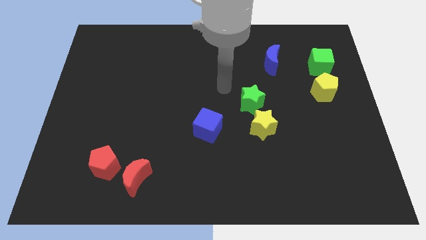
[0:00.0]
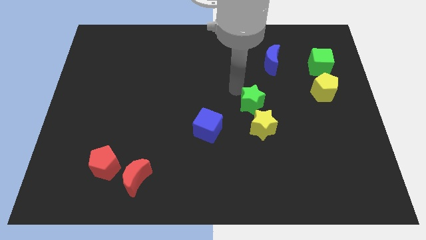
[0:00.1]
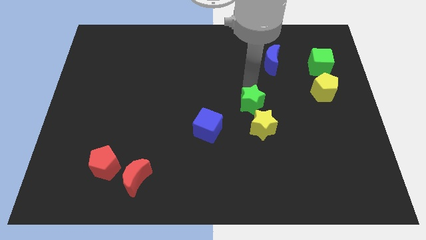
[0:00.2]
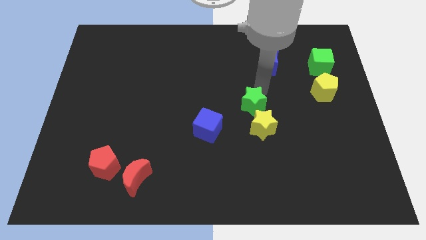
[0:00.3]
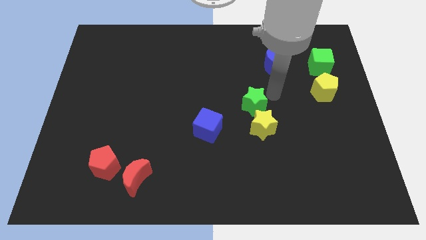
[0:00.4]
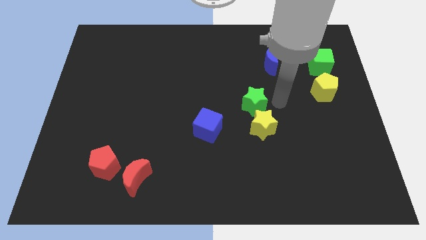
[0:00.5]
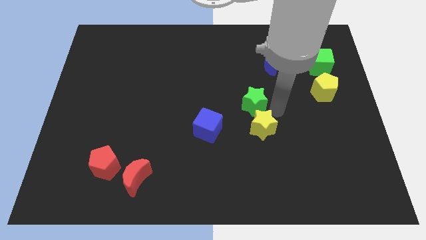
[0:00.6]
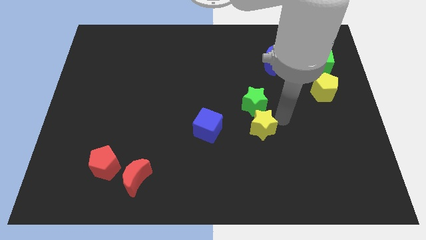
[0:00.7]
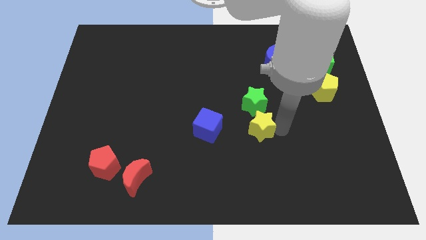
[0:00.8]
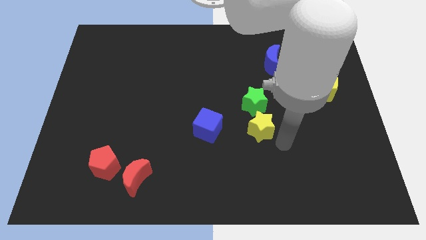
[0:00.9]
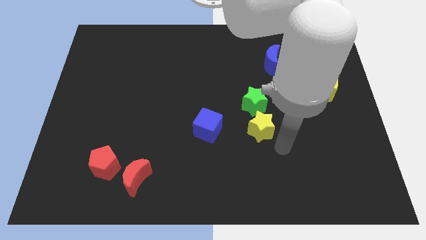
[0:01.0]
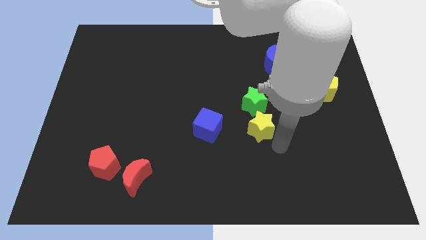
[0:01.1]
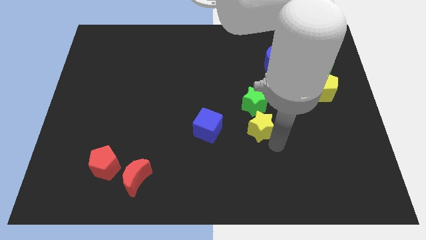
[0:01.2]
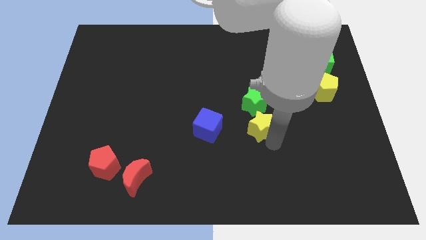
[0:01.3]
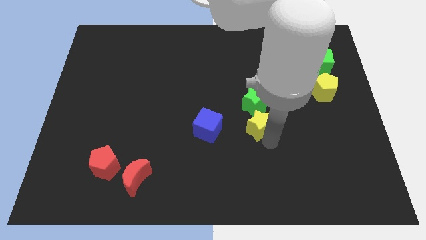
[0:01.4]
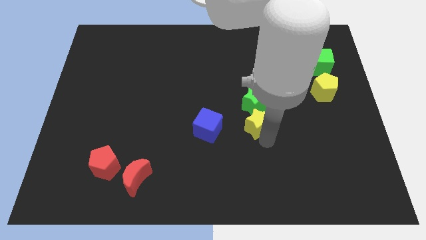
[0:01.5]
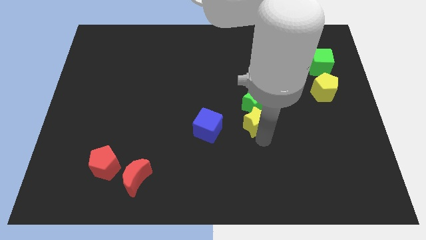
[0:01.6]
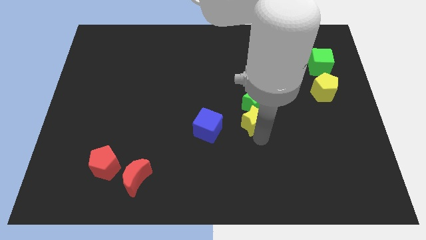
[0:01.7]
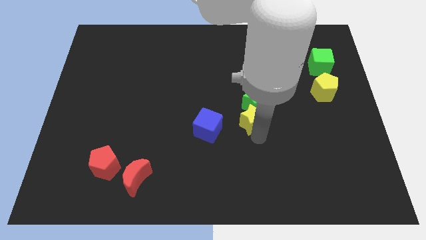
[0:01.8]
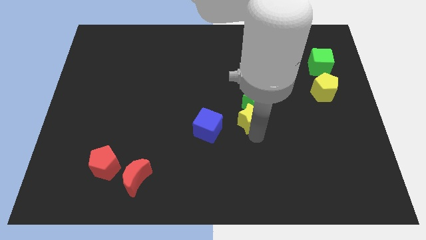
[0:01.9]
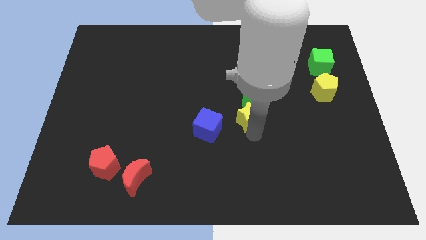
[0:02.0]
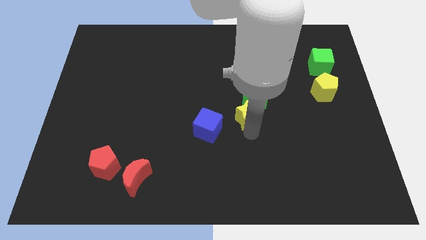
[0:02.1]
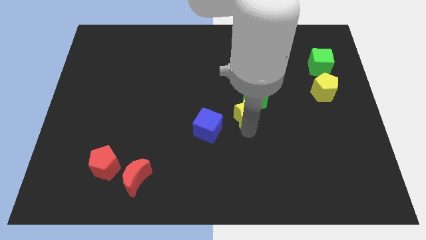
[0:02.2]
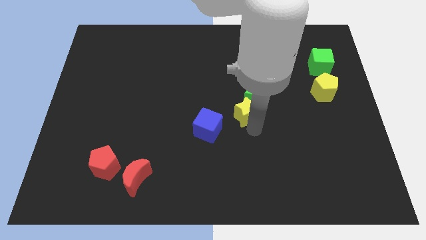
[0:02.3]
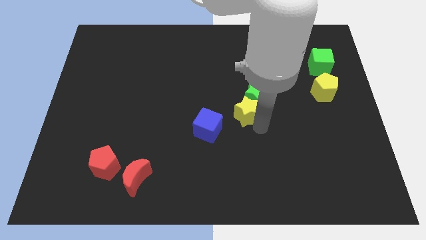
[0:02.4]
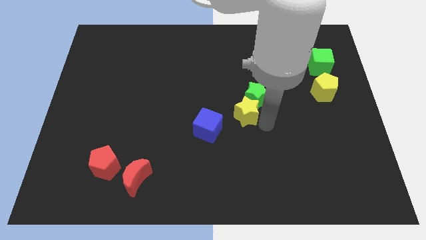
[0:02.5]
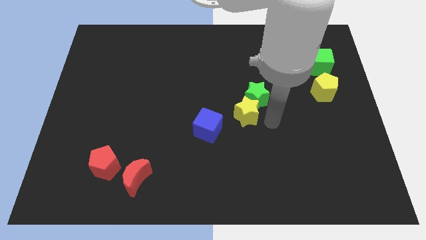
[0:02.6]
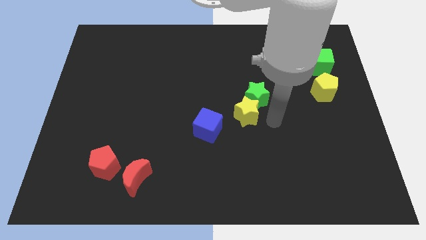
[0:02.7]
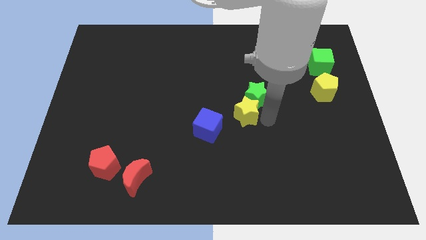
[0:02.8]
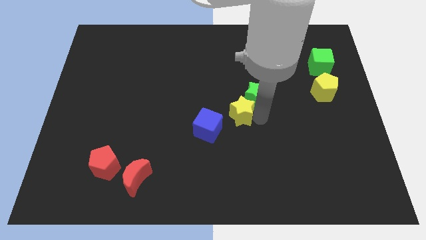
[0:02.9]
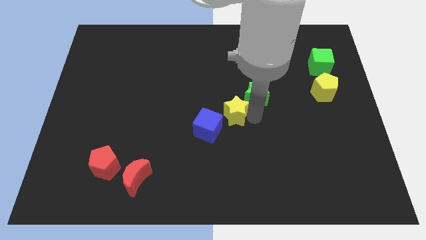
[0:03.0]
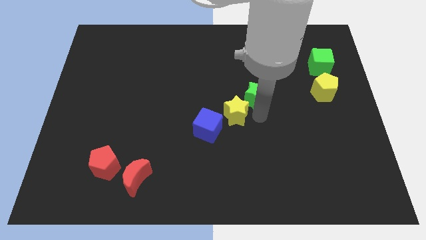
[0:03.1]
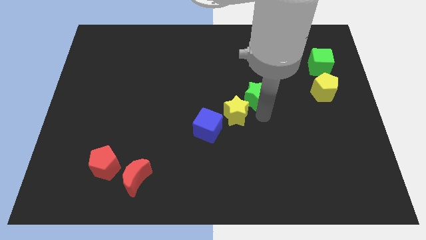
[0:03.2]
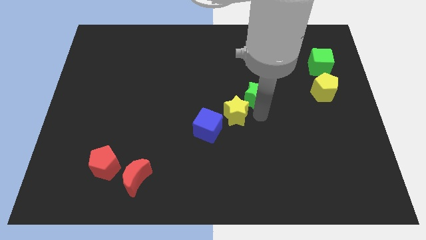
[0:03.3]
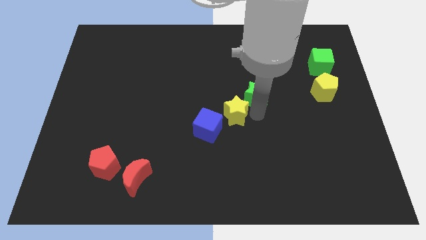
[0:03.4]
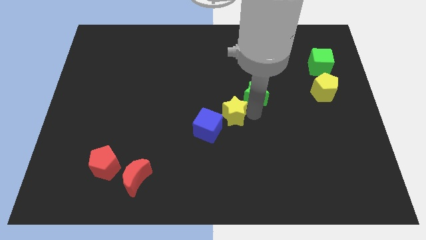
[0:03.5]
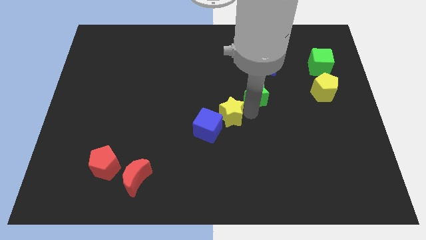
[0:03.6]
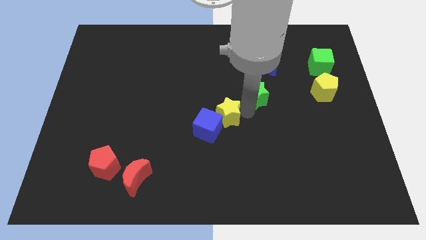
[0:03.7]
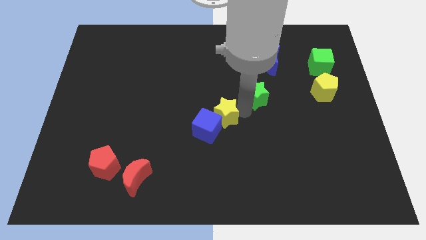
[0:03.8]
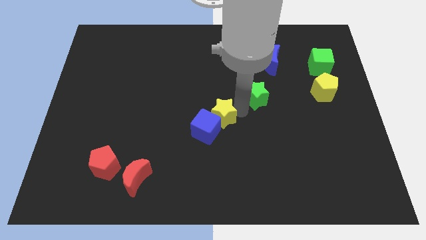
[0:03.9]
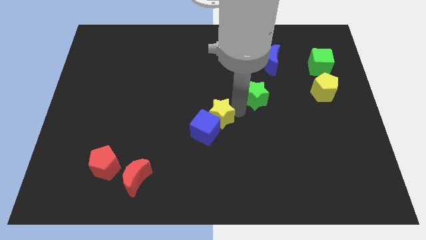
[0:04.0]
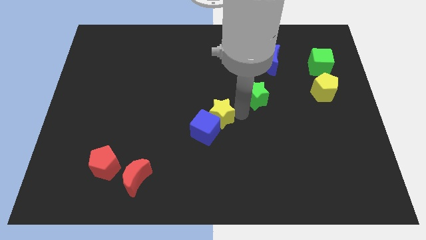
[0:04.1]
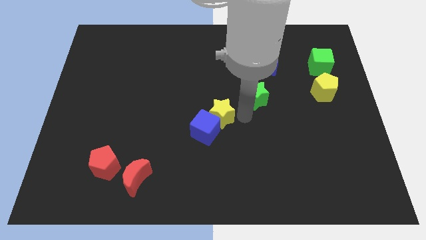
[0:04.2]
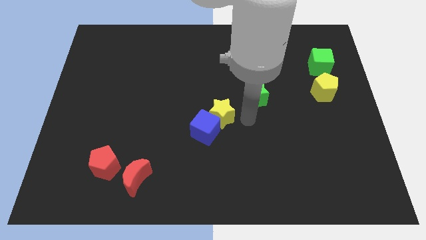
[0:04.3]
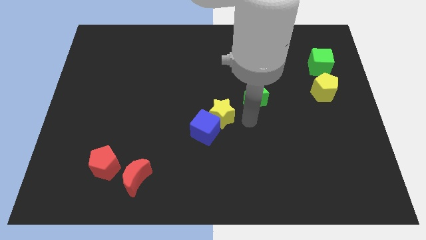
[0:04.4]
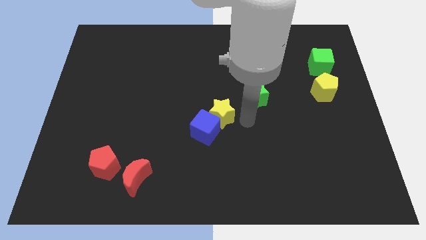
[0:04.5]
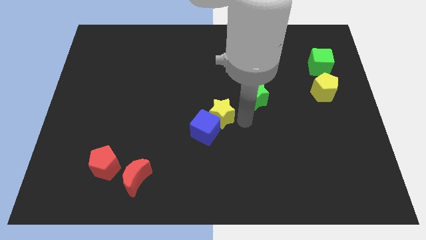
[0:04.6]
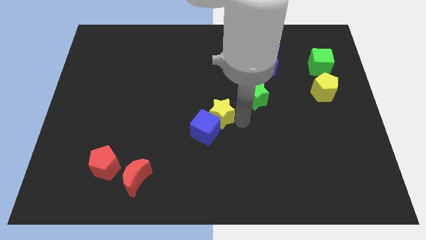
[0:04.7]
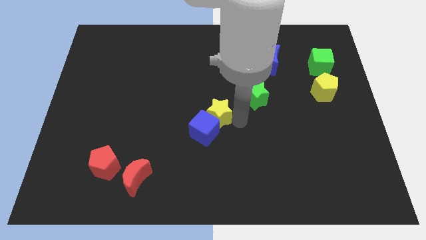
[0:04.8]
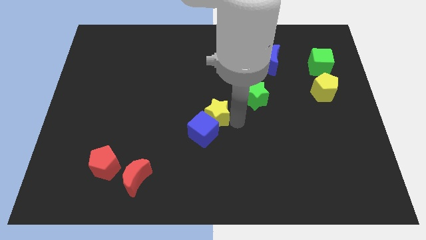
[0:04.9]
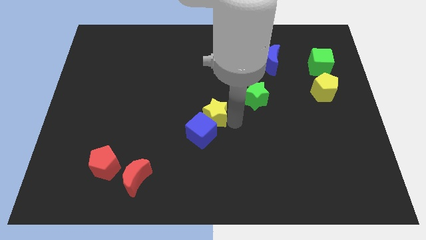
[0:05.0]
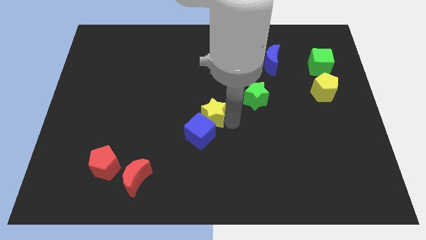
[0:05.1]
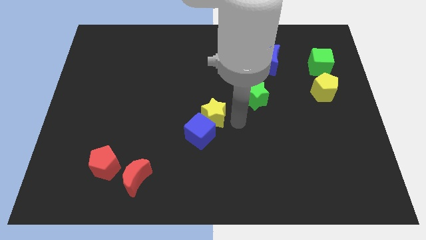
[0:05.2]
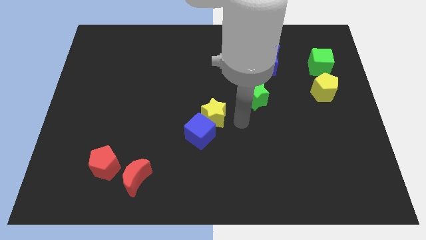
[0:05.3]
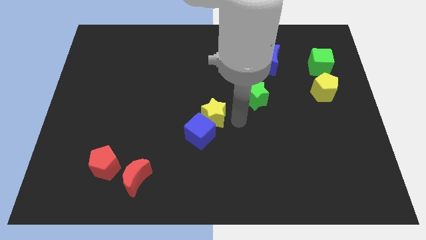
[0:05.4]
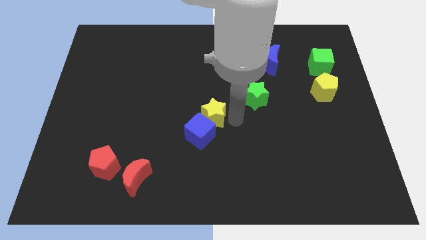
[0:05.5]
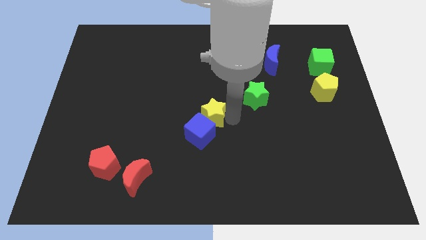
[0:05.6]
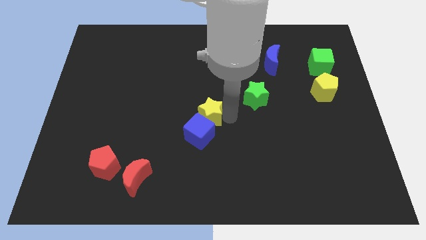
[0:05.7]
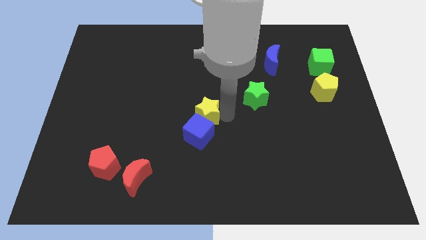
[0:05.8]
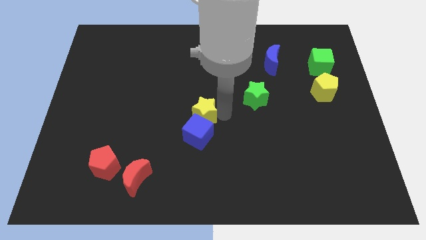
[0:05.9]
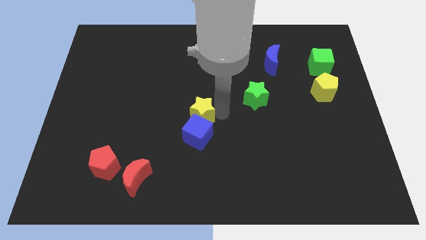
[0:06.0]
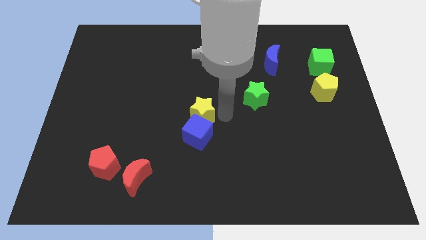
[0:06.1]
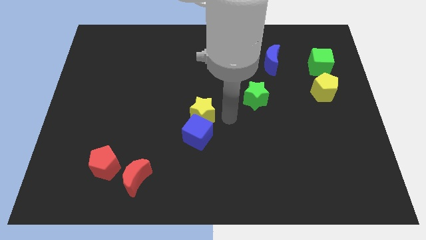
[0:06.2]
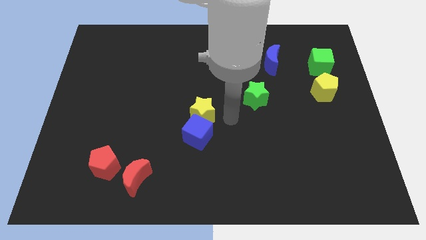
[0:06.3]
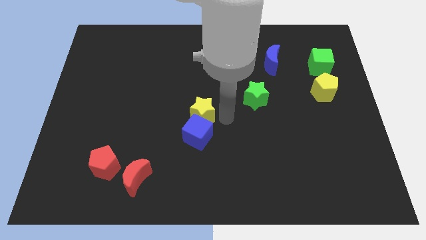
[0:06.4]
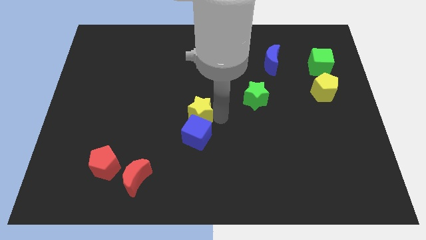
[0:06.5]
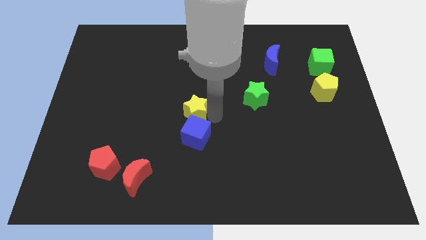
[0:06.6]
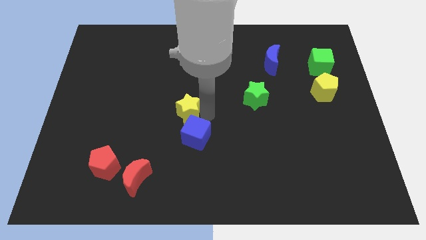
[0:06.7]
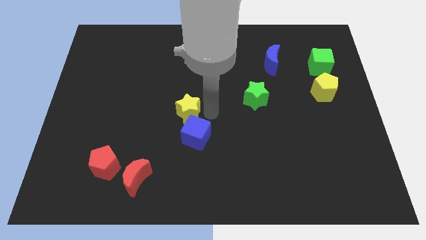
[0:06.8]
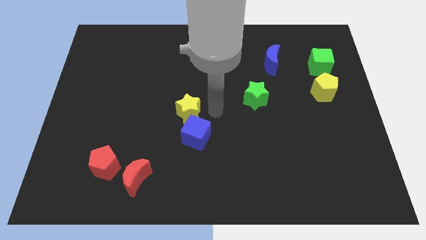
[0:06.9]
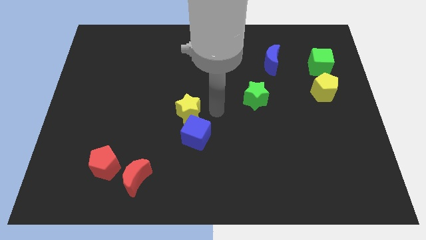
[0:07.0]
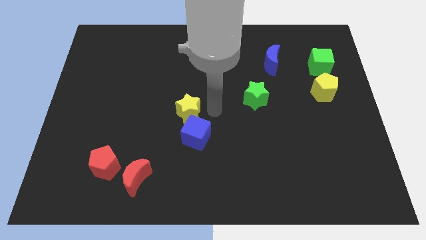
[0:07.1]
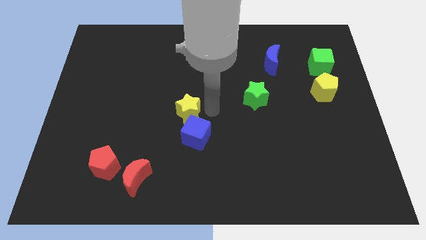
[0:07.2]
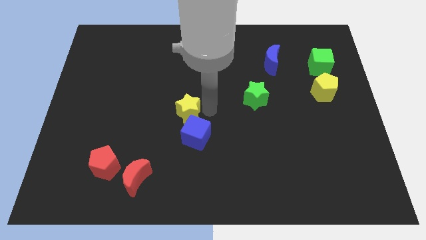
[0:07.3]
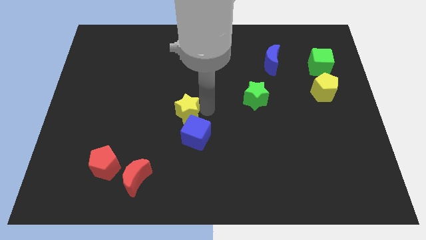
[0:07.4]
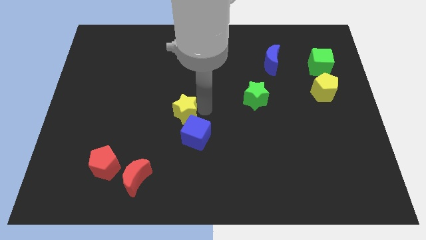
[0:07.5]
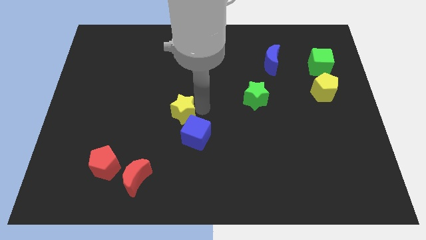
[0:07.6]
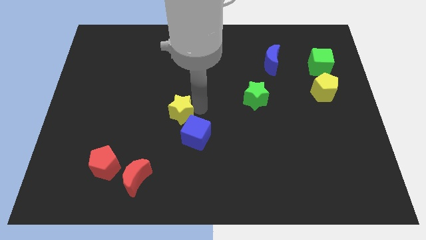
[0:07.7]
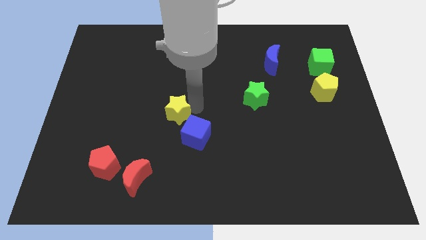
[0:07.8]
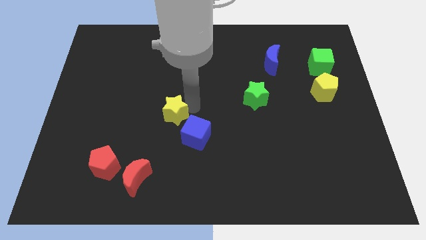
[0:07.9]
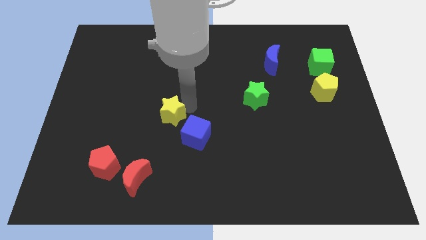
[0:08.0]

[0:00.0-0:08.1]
push the yellow star to the left
